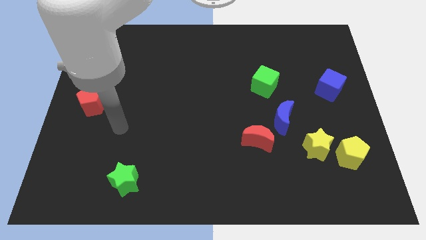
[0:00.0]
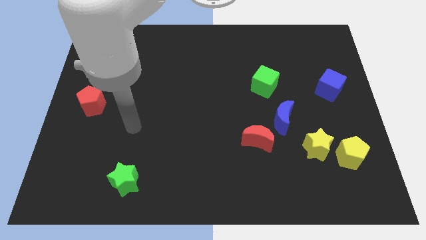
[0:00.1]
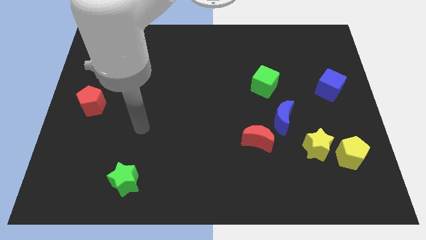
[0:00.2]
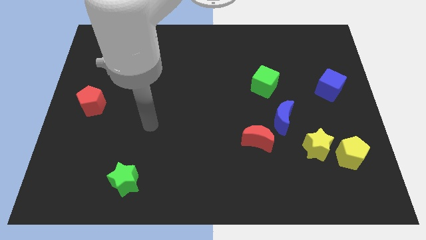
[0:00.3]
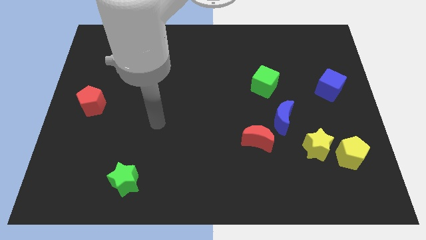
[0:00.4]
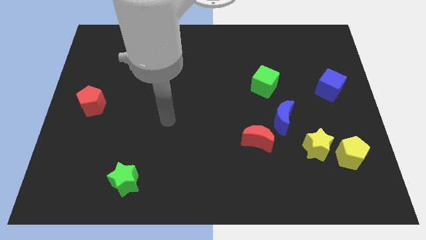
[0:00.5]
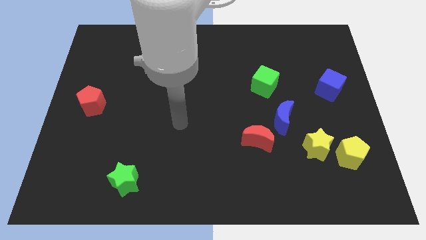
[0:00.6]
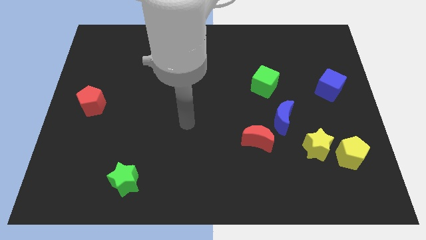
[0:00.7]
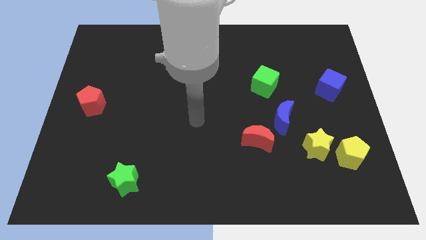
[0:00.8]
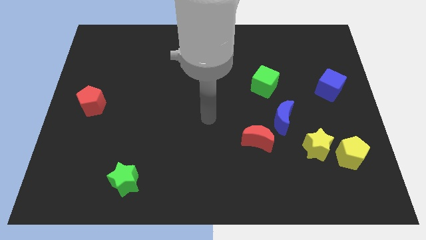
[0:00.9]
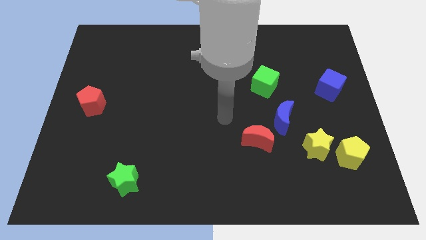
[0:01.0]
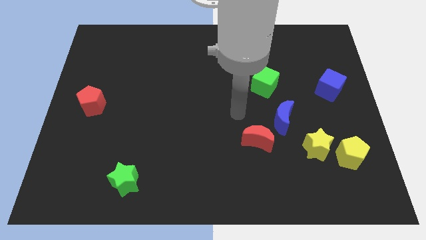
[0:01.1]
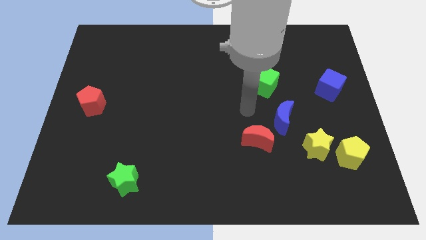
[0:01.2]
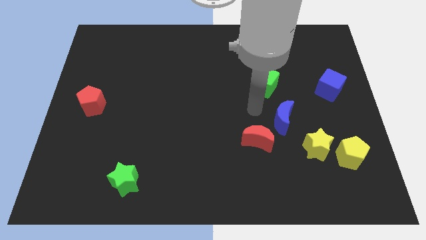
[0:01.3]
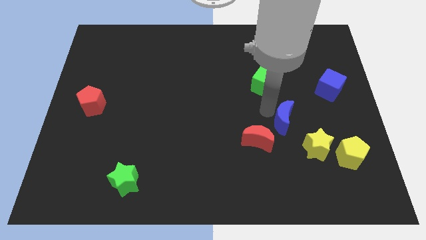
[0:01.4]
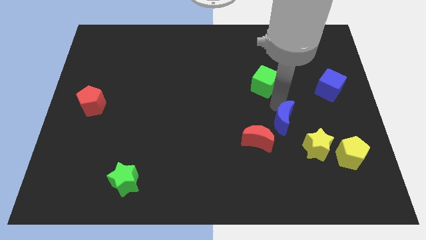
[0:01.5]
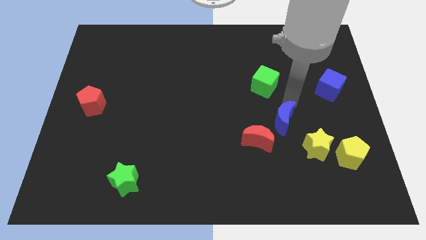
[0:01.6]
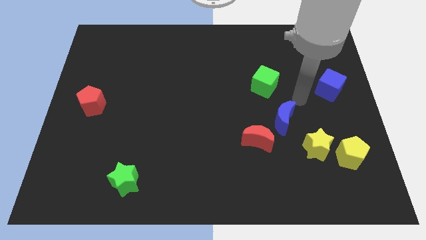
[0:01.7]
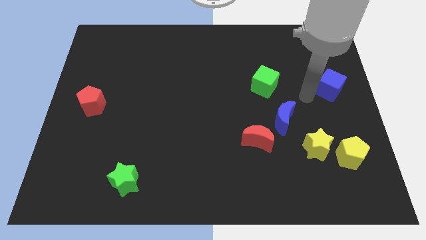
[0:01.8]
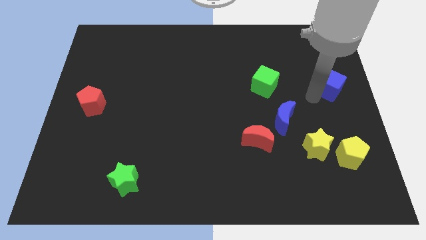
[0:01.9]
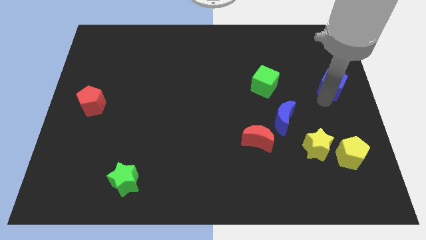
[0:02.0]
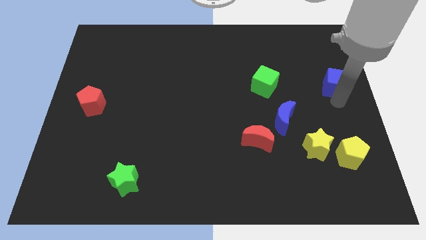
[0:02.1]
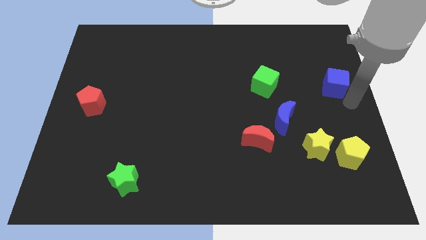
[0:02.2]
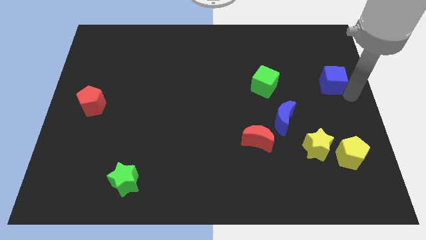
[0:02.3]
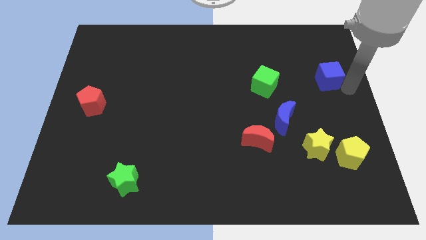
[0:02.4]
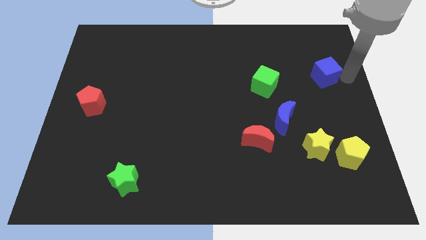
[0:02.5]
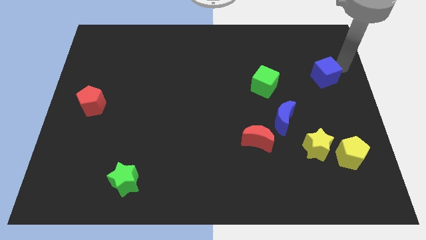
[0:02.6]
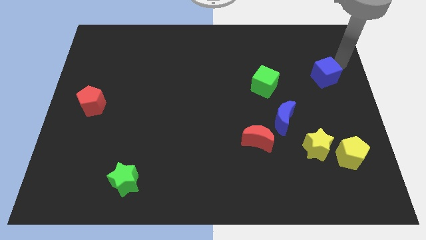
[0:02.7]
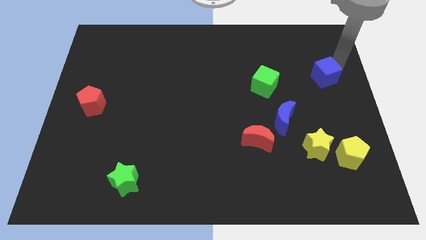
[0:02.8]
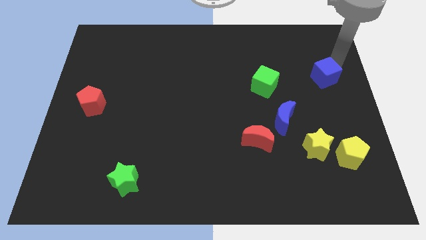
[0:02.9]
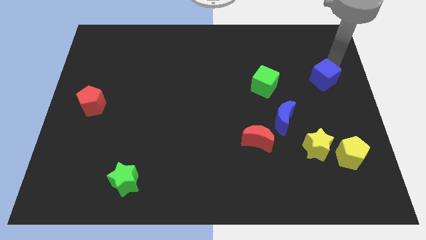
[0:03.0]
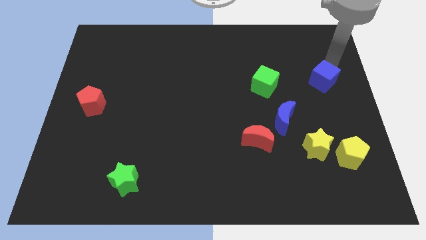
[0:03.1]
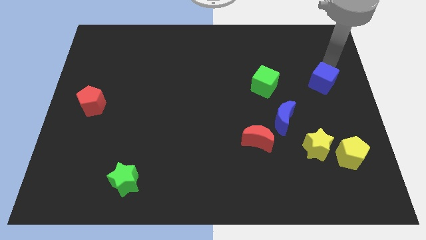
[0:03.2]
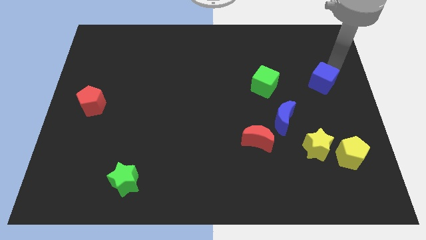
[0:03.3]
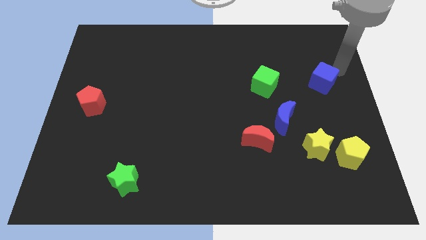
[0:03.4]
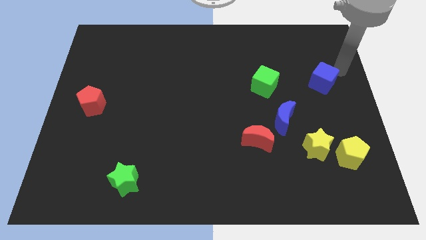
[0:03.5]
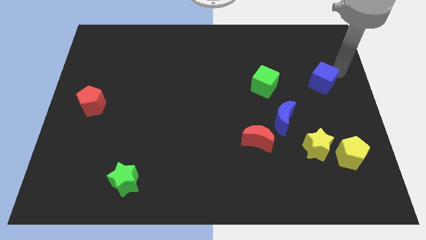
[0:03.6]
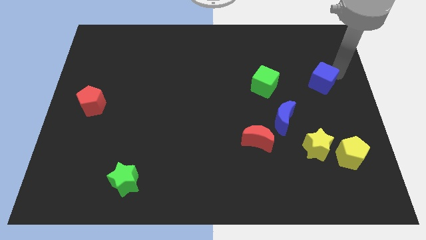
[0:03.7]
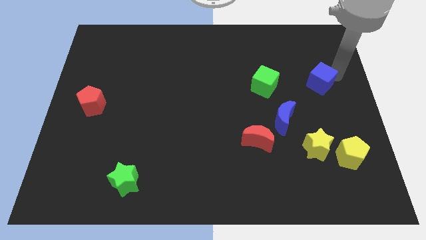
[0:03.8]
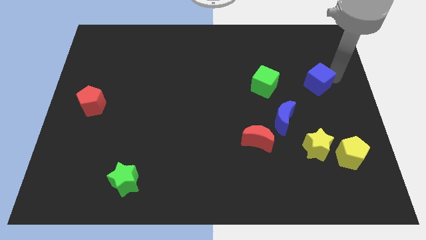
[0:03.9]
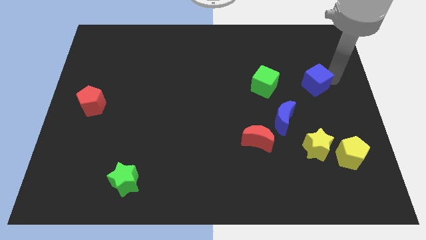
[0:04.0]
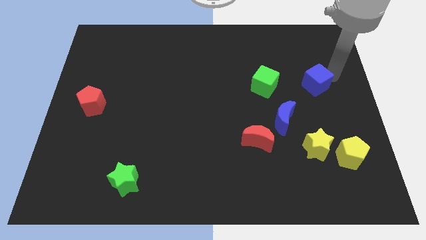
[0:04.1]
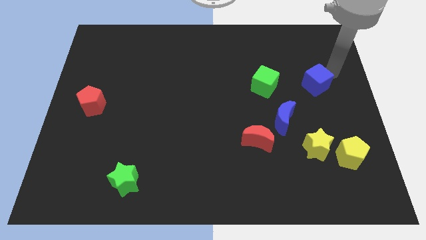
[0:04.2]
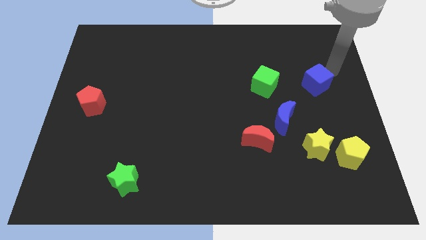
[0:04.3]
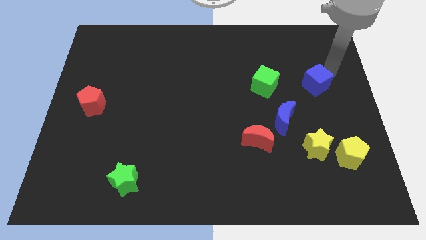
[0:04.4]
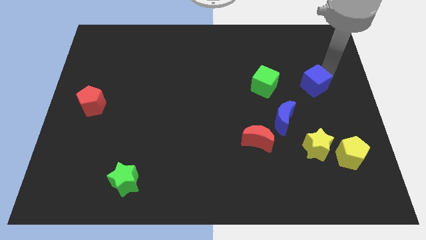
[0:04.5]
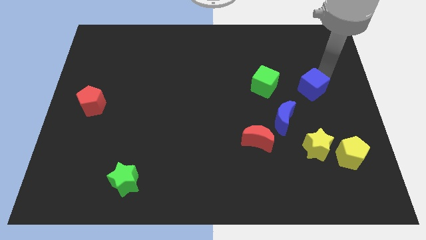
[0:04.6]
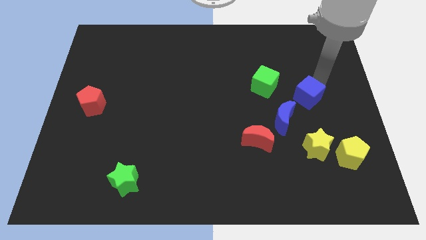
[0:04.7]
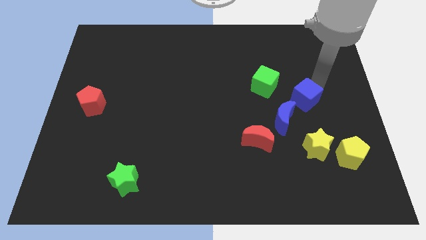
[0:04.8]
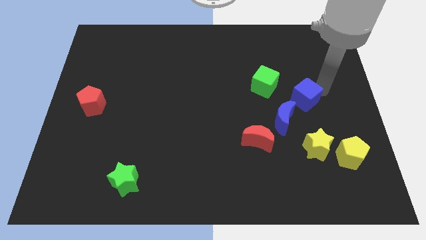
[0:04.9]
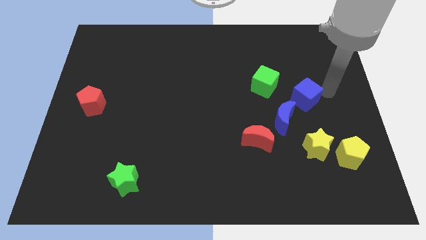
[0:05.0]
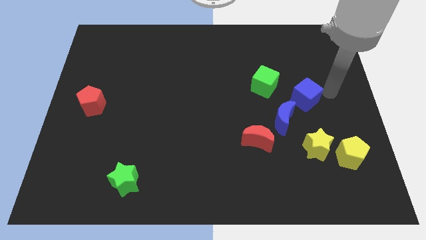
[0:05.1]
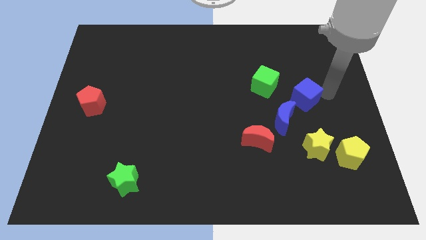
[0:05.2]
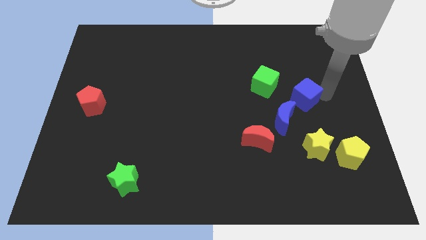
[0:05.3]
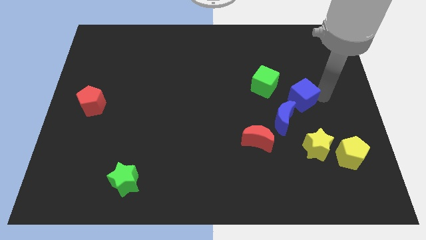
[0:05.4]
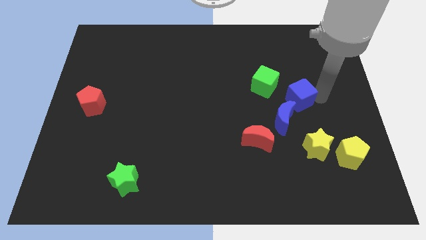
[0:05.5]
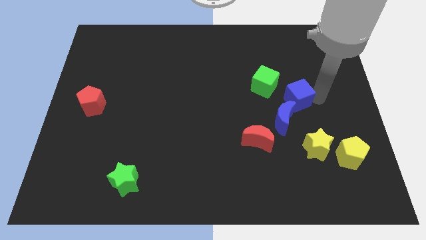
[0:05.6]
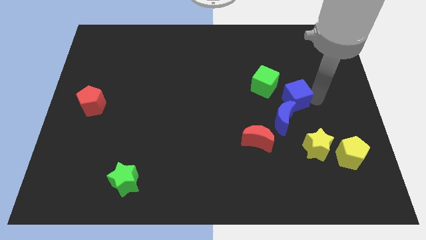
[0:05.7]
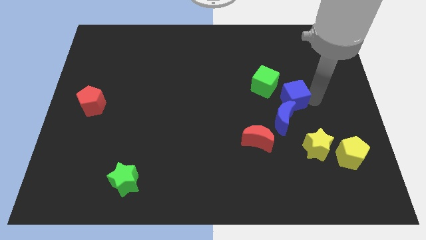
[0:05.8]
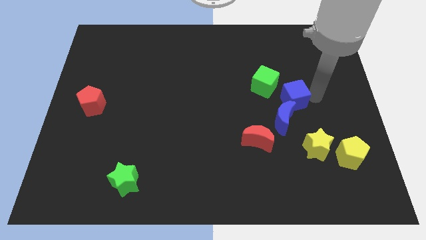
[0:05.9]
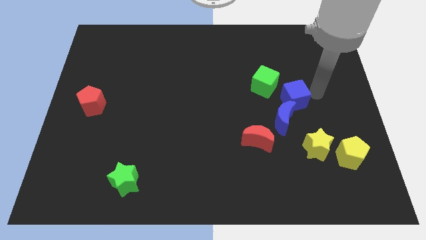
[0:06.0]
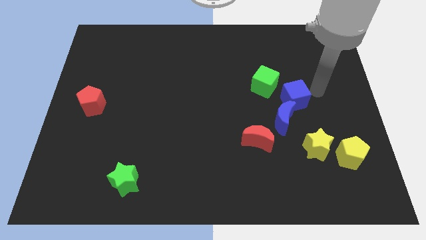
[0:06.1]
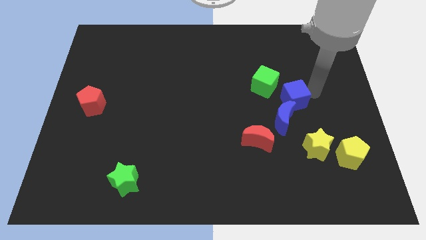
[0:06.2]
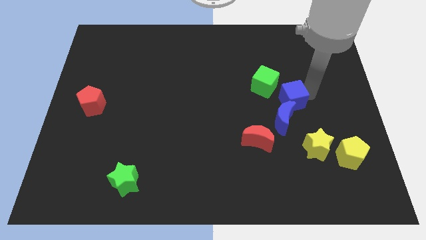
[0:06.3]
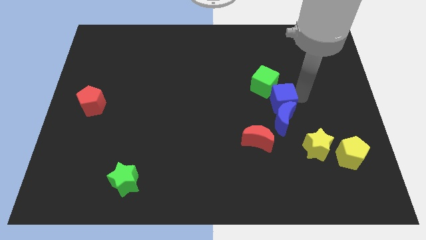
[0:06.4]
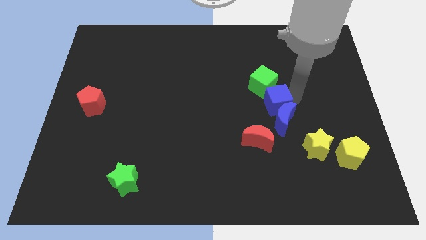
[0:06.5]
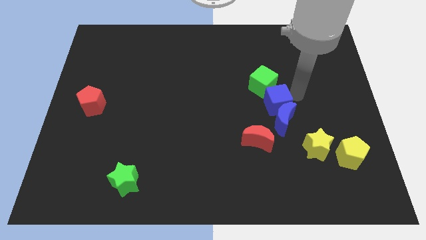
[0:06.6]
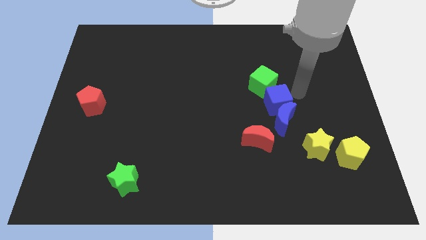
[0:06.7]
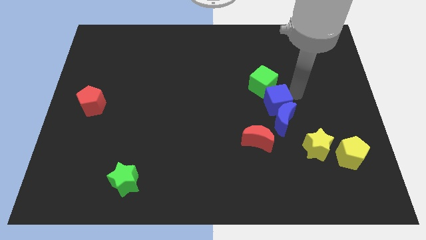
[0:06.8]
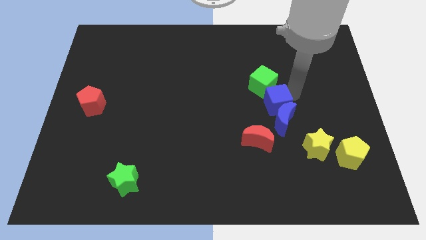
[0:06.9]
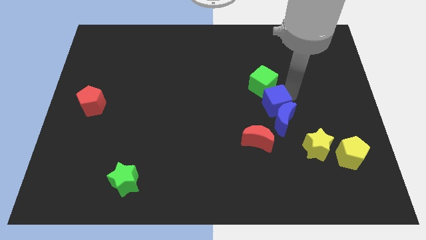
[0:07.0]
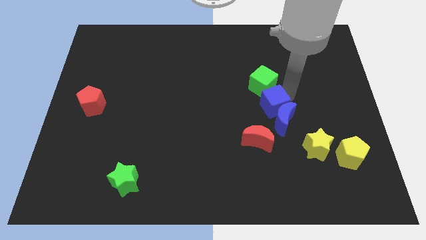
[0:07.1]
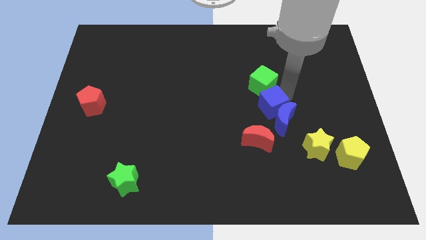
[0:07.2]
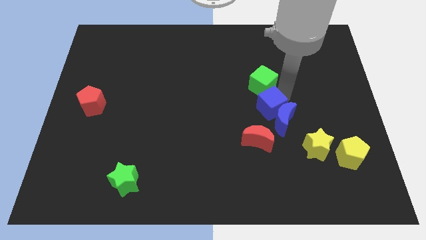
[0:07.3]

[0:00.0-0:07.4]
slide the blue cube just left of the blue moon

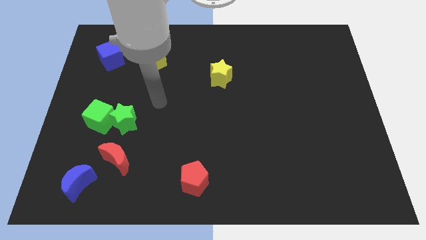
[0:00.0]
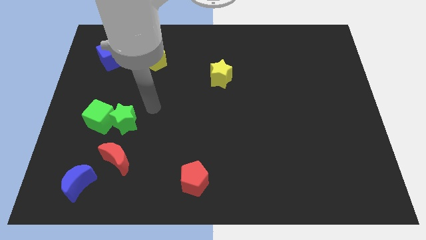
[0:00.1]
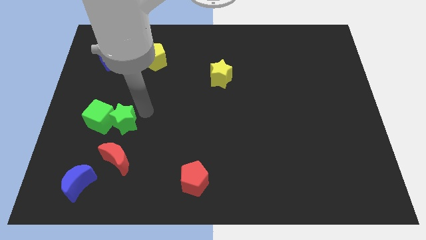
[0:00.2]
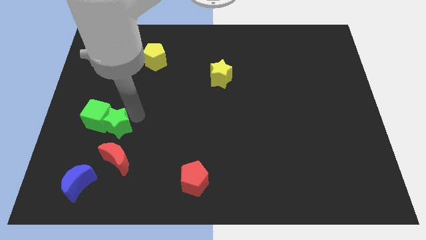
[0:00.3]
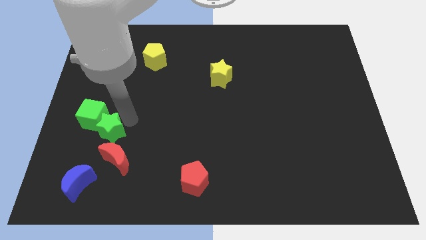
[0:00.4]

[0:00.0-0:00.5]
slide the green star above the blue moon
